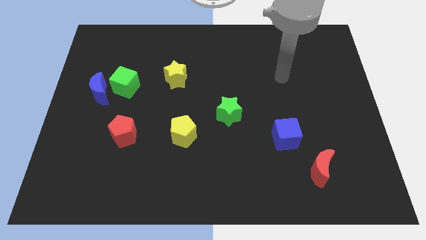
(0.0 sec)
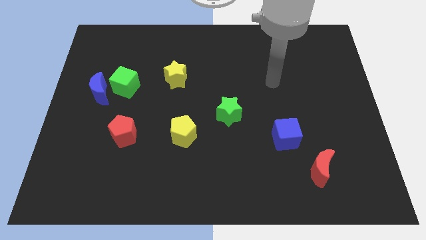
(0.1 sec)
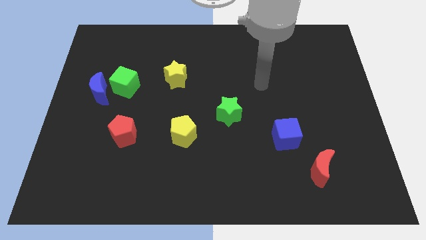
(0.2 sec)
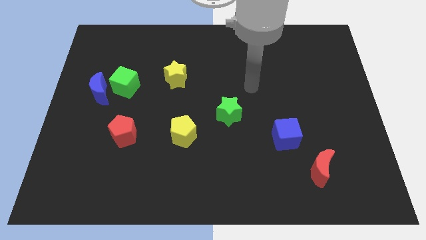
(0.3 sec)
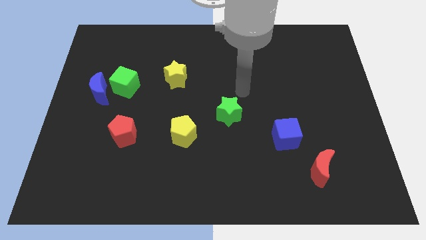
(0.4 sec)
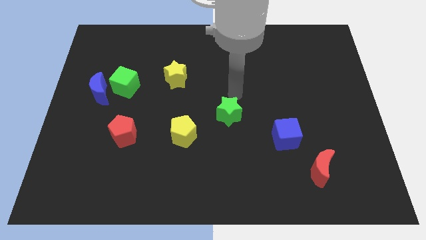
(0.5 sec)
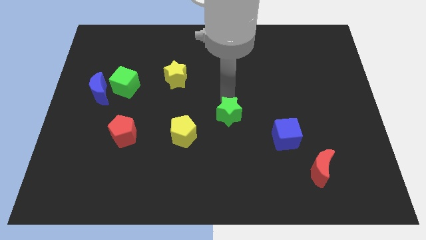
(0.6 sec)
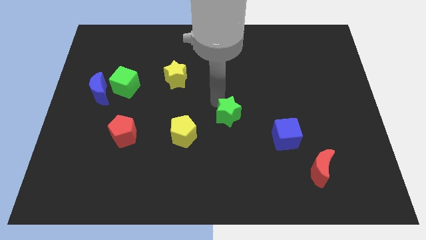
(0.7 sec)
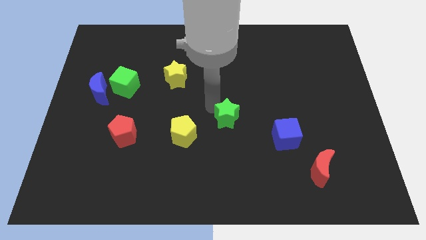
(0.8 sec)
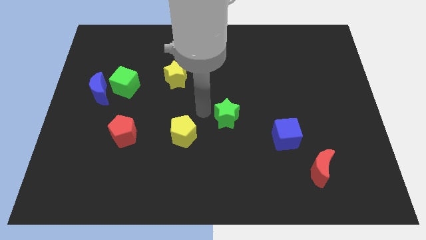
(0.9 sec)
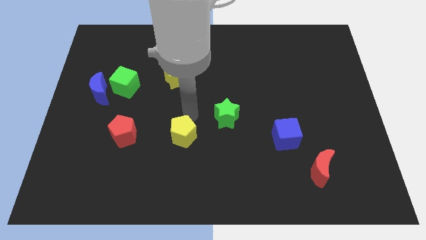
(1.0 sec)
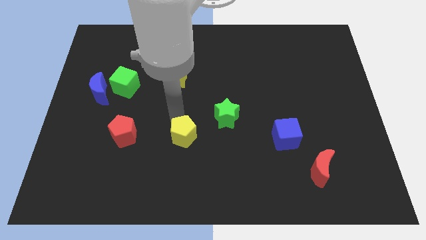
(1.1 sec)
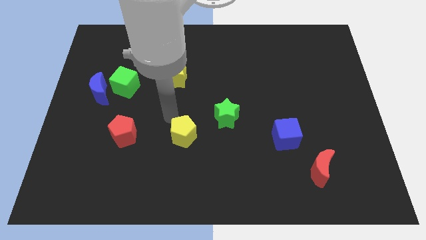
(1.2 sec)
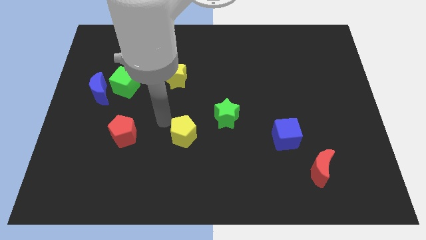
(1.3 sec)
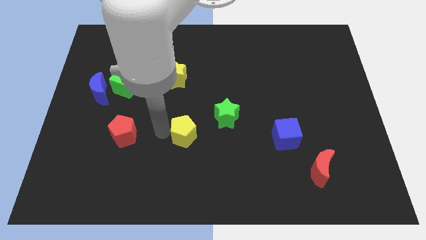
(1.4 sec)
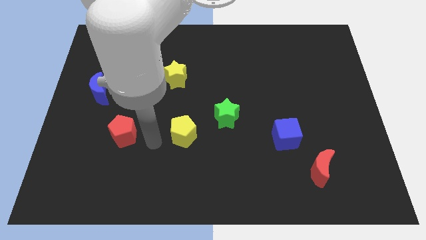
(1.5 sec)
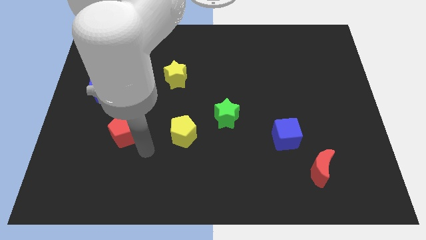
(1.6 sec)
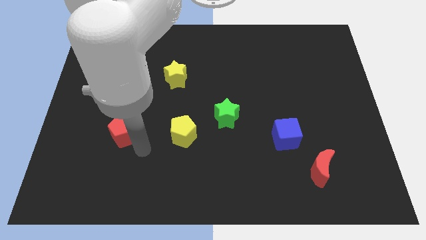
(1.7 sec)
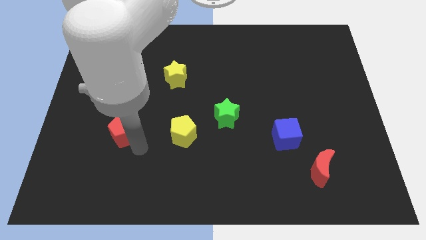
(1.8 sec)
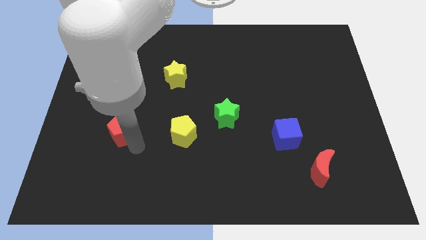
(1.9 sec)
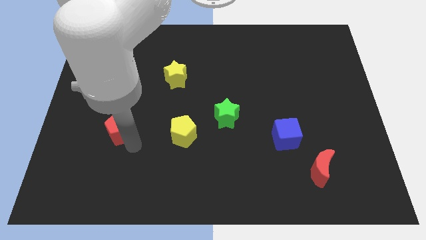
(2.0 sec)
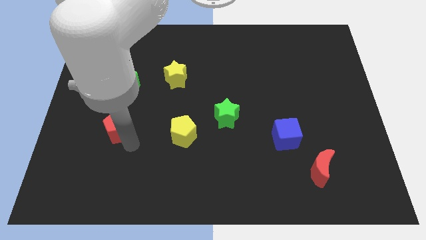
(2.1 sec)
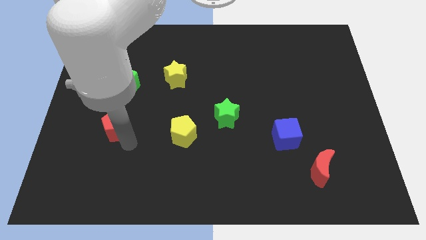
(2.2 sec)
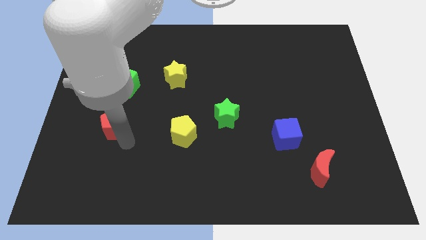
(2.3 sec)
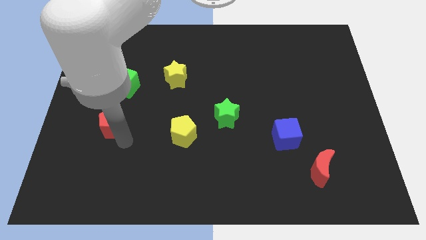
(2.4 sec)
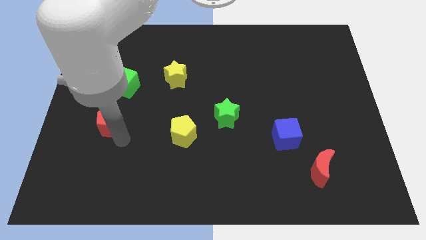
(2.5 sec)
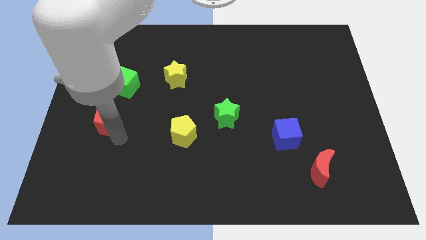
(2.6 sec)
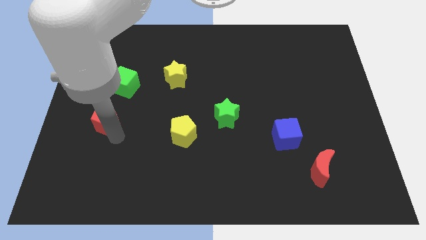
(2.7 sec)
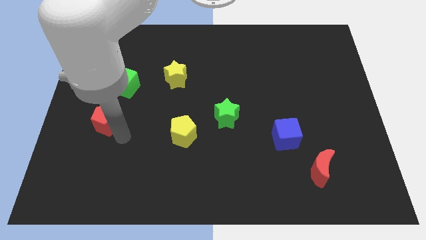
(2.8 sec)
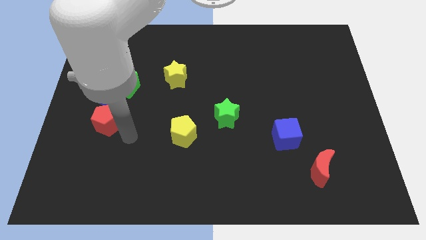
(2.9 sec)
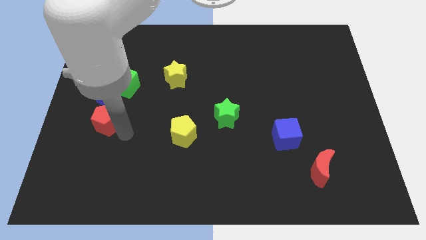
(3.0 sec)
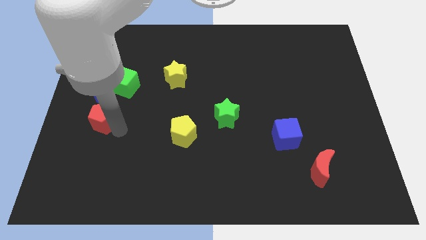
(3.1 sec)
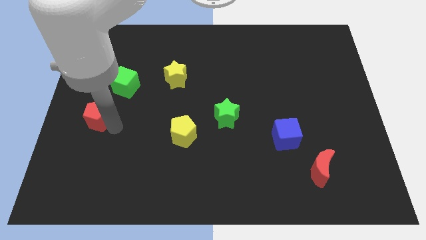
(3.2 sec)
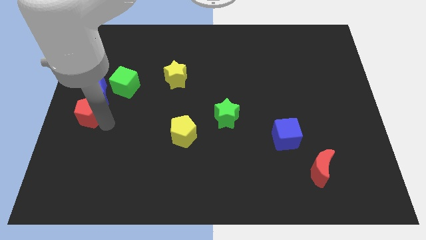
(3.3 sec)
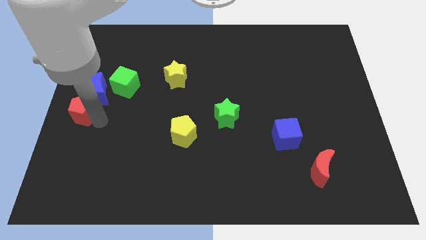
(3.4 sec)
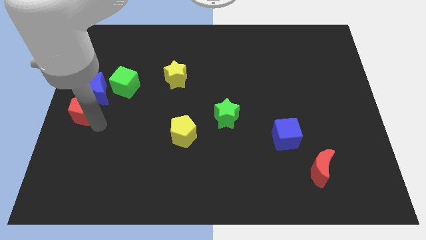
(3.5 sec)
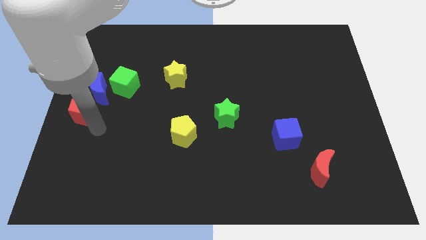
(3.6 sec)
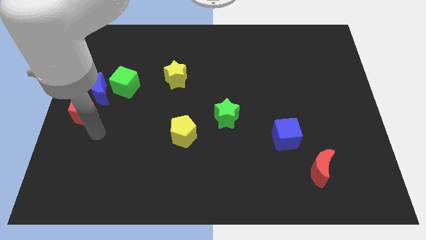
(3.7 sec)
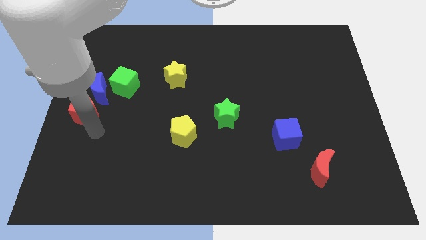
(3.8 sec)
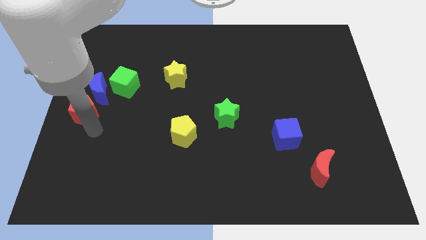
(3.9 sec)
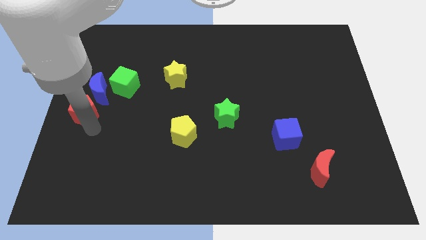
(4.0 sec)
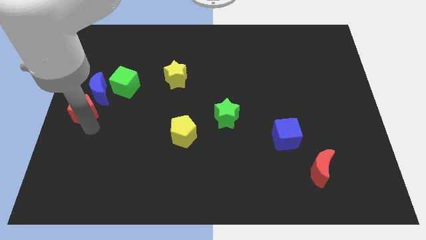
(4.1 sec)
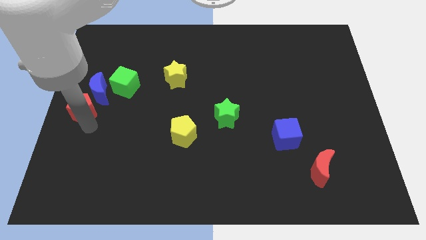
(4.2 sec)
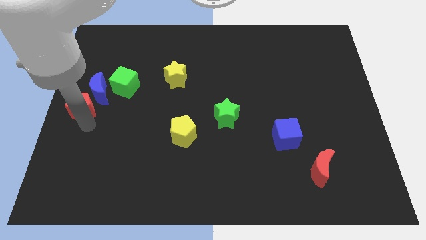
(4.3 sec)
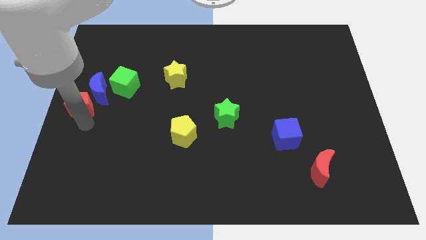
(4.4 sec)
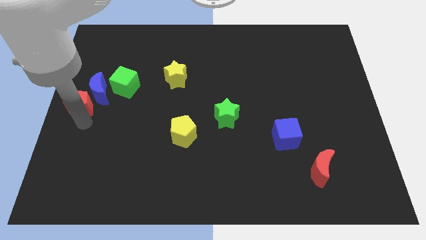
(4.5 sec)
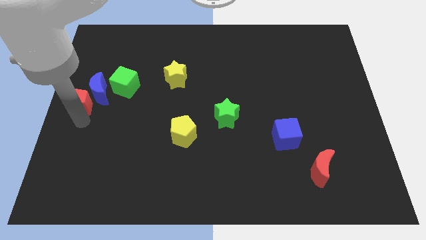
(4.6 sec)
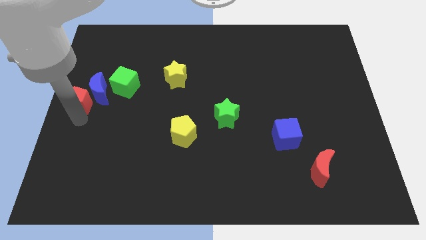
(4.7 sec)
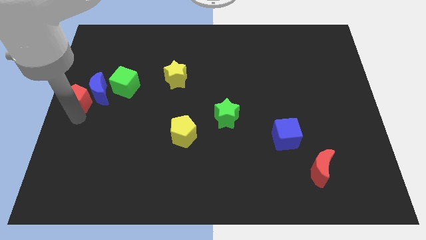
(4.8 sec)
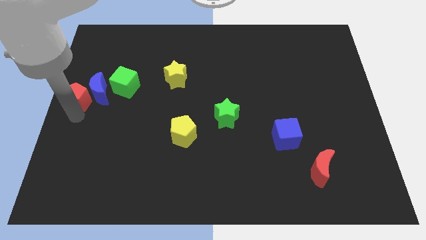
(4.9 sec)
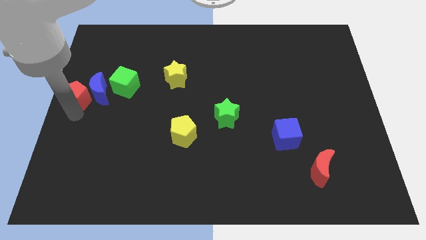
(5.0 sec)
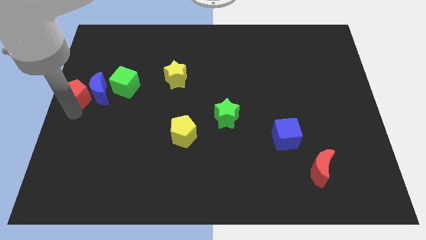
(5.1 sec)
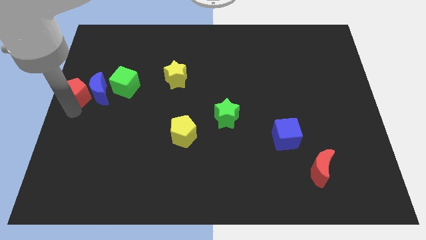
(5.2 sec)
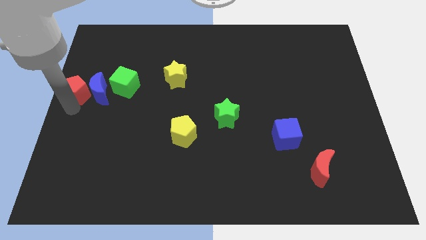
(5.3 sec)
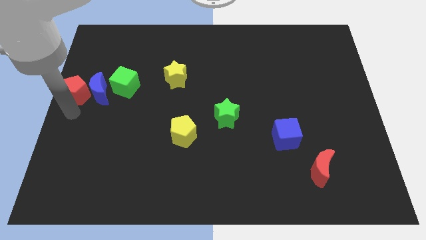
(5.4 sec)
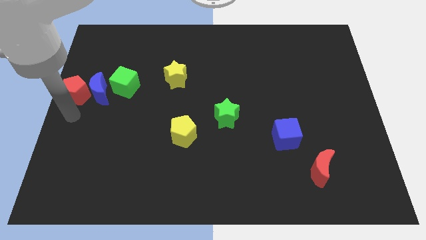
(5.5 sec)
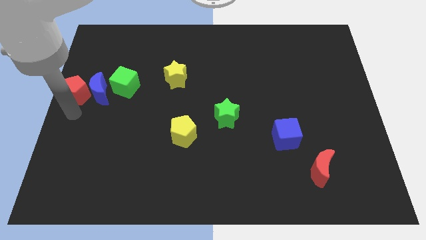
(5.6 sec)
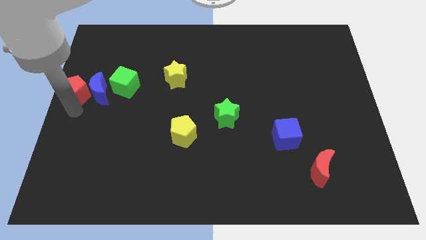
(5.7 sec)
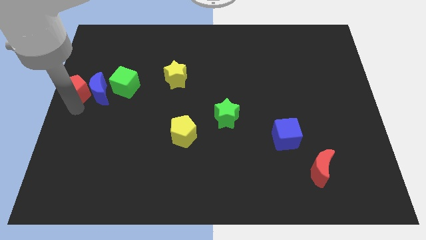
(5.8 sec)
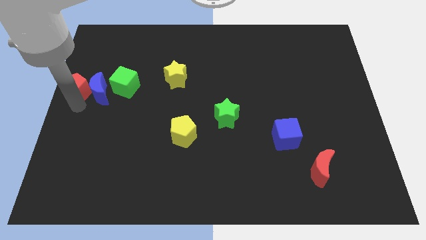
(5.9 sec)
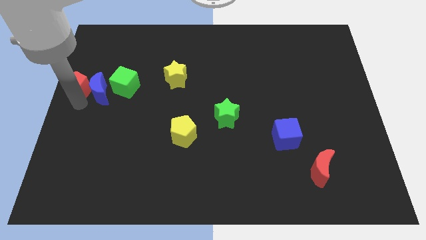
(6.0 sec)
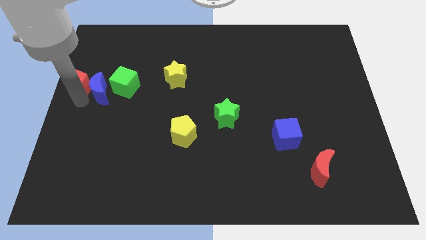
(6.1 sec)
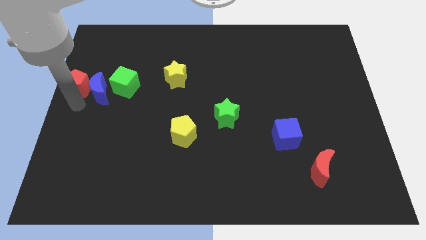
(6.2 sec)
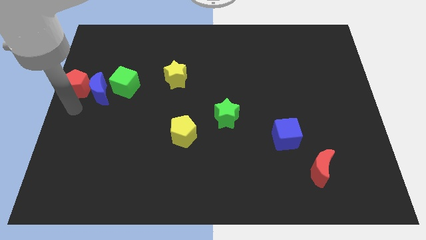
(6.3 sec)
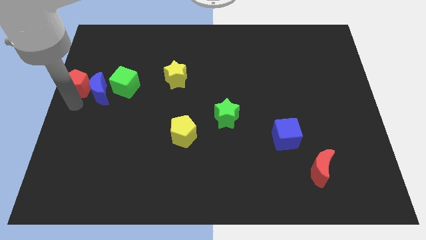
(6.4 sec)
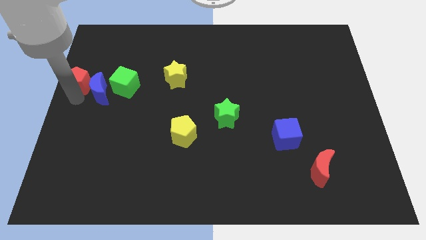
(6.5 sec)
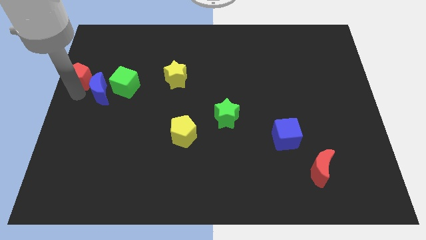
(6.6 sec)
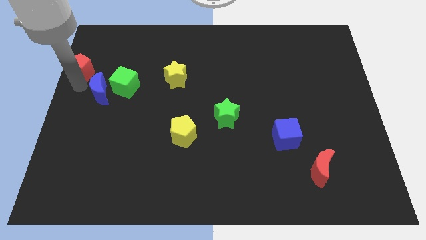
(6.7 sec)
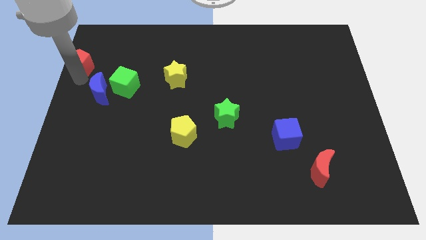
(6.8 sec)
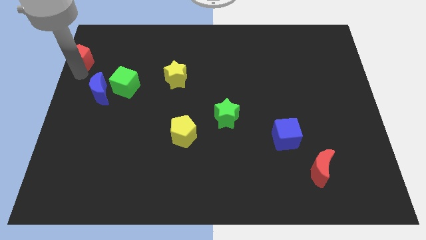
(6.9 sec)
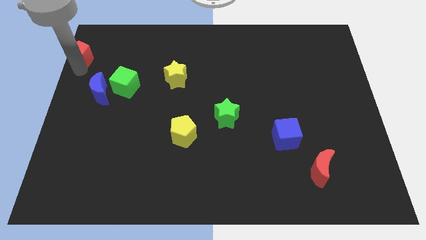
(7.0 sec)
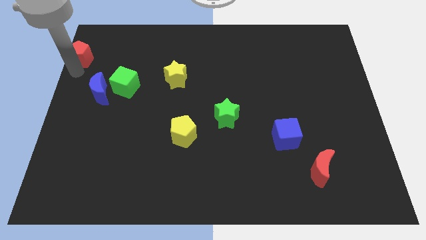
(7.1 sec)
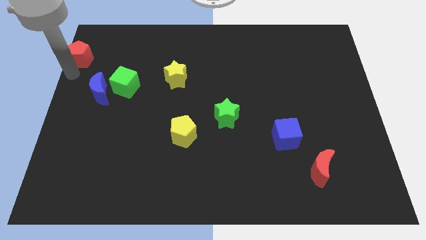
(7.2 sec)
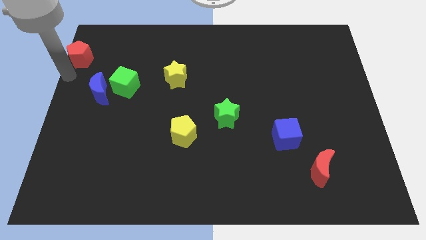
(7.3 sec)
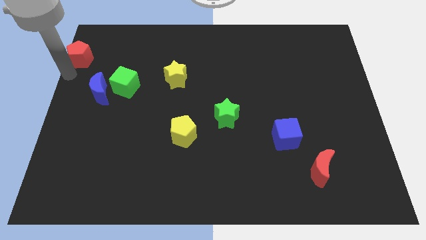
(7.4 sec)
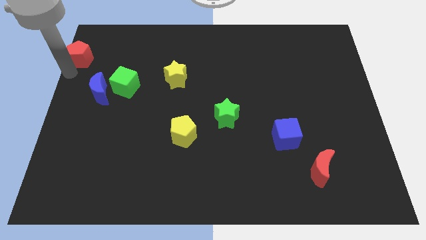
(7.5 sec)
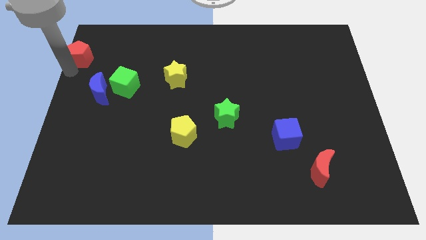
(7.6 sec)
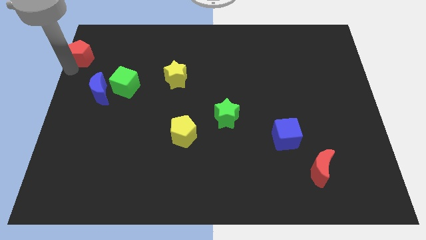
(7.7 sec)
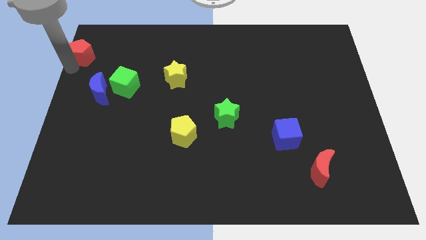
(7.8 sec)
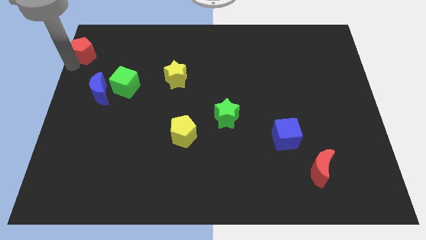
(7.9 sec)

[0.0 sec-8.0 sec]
move the red pentagon to the top left of the board
